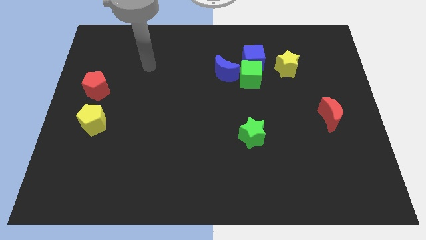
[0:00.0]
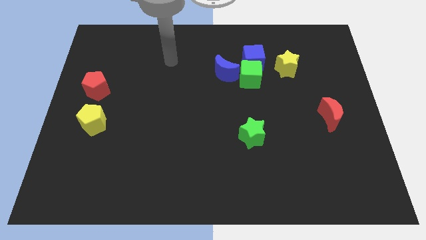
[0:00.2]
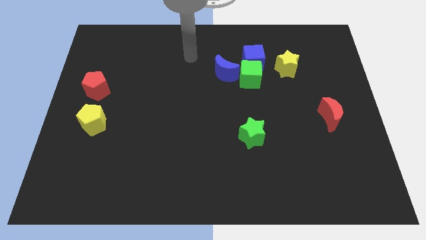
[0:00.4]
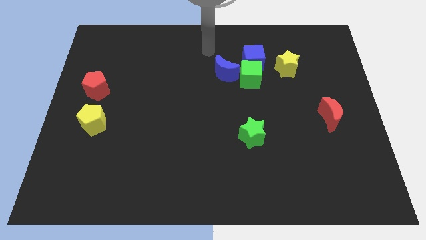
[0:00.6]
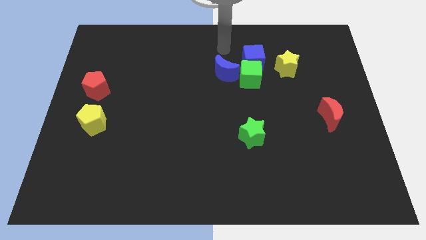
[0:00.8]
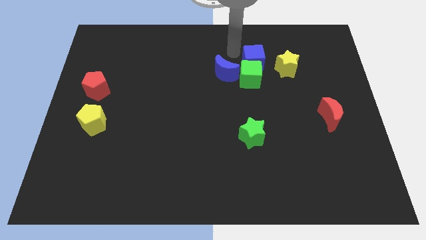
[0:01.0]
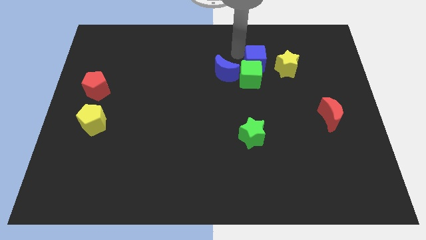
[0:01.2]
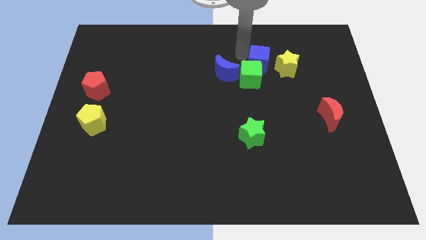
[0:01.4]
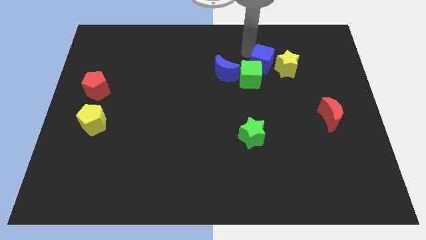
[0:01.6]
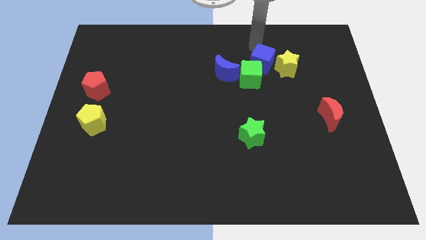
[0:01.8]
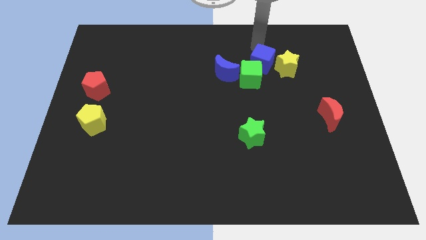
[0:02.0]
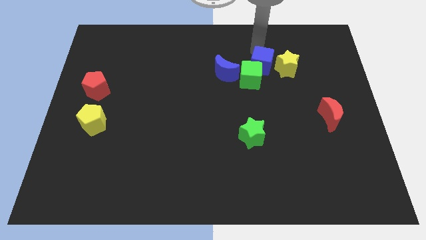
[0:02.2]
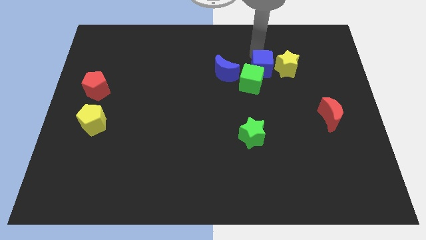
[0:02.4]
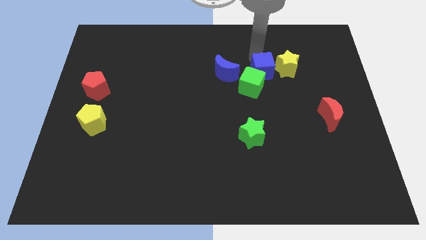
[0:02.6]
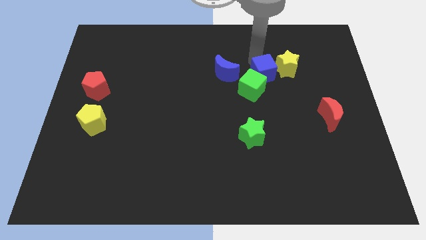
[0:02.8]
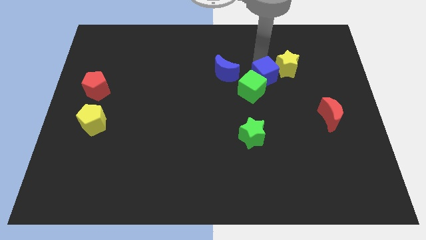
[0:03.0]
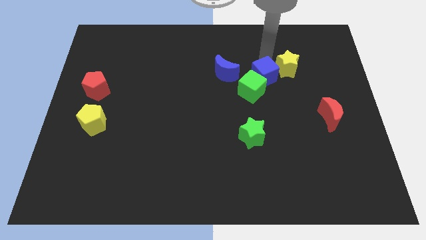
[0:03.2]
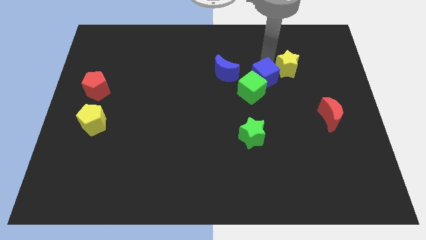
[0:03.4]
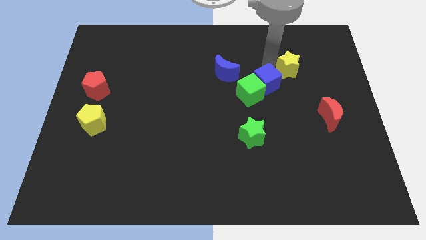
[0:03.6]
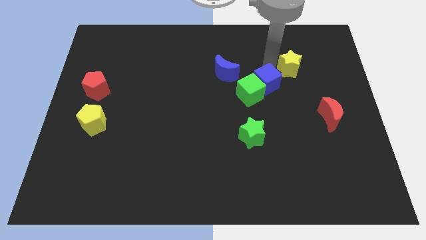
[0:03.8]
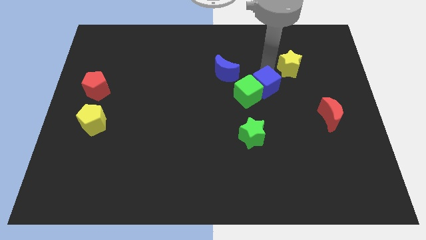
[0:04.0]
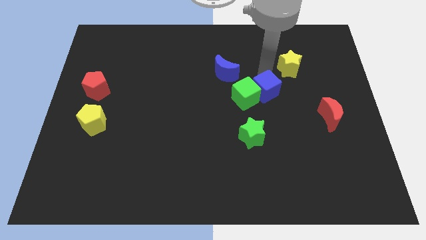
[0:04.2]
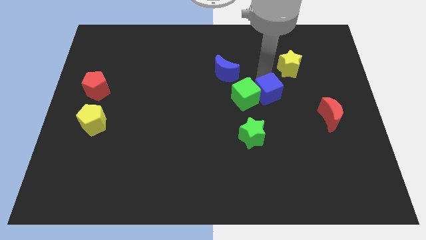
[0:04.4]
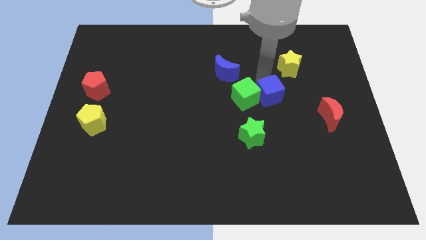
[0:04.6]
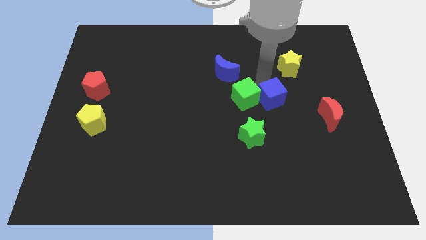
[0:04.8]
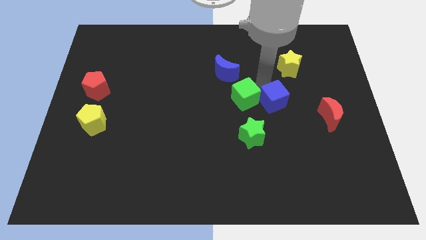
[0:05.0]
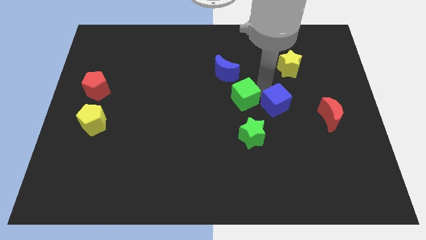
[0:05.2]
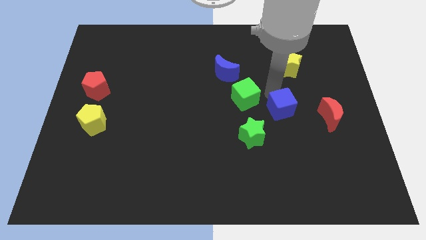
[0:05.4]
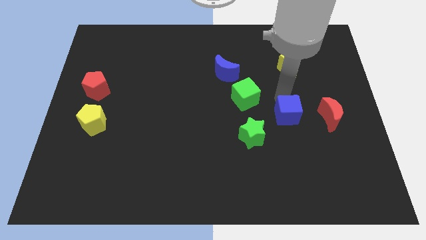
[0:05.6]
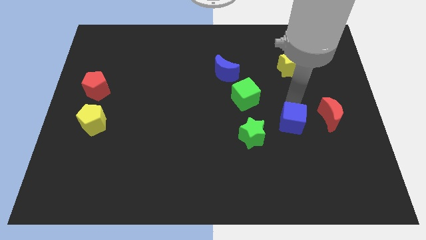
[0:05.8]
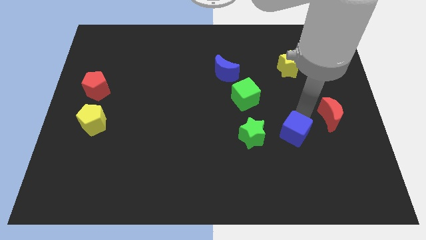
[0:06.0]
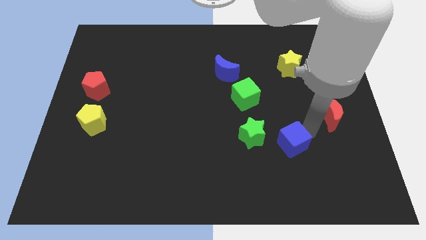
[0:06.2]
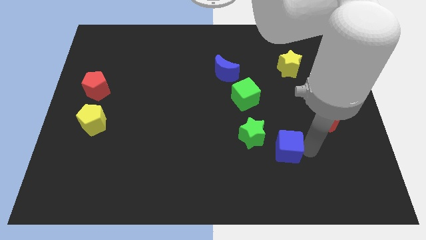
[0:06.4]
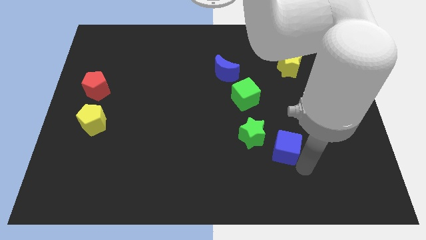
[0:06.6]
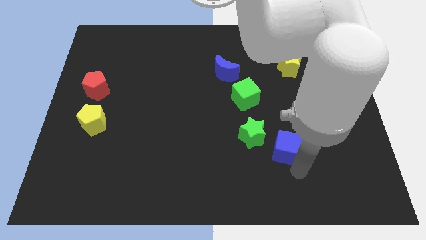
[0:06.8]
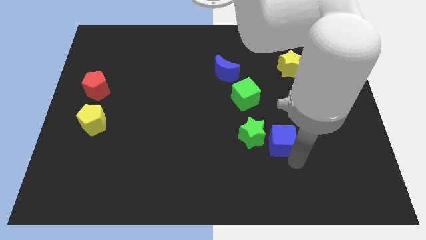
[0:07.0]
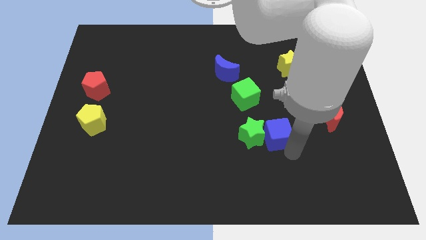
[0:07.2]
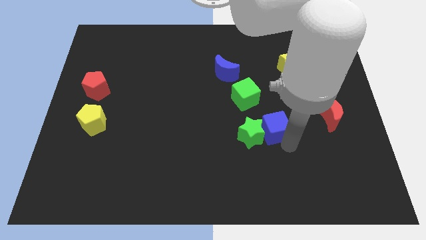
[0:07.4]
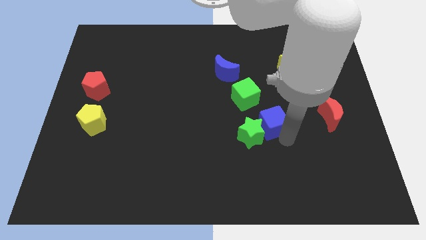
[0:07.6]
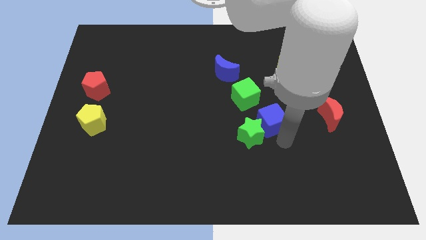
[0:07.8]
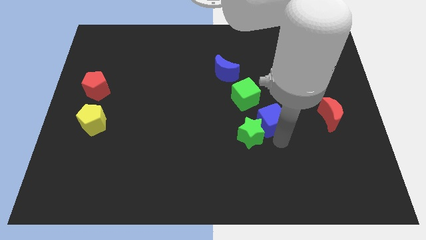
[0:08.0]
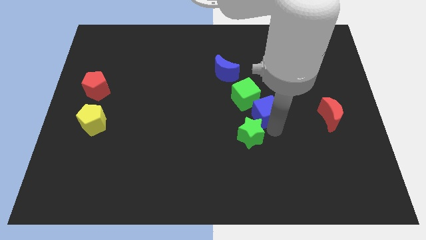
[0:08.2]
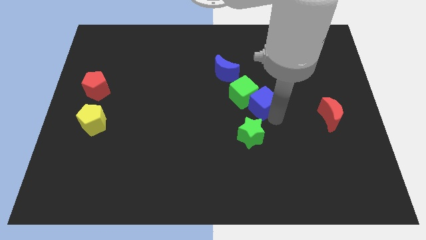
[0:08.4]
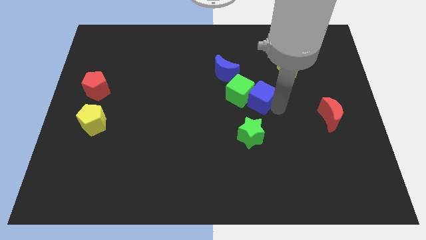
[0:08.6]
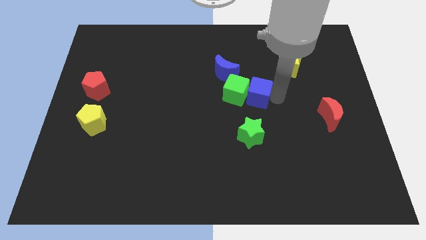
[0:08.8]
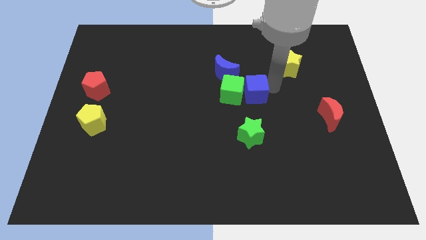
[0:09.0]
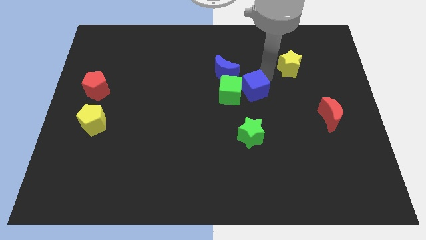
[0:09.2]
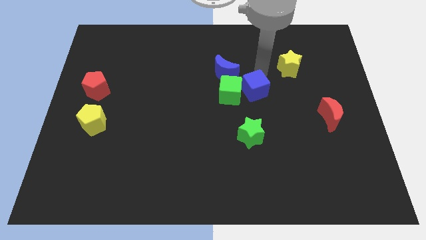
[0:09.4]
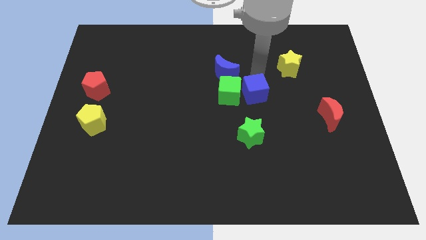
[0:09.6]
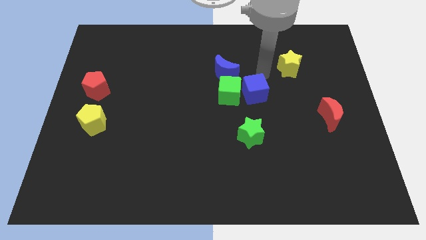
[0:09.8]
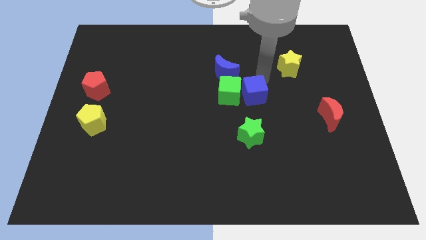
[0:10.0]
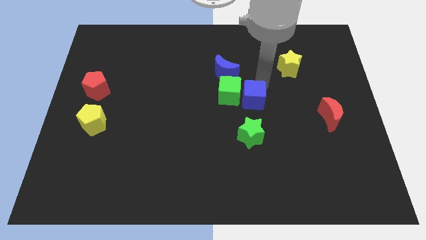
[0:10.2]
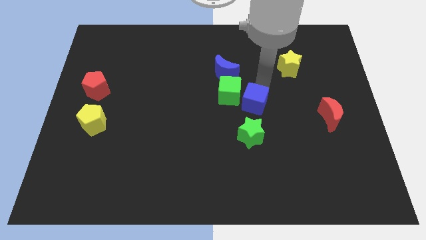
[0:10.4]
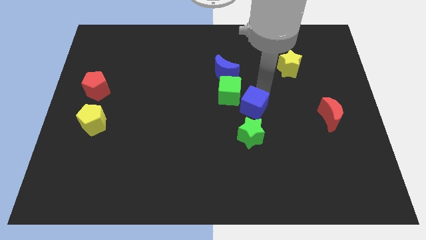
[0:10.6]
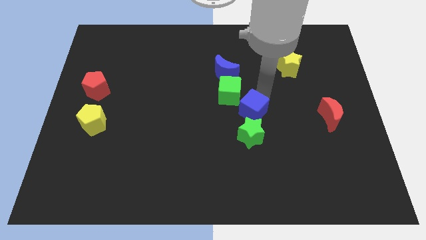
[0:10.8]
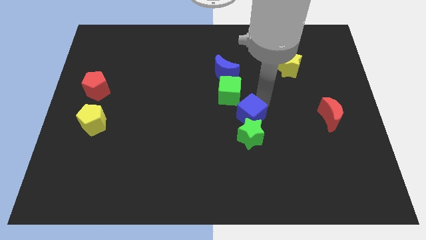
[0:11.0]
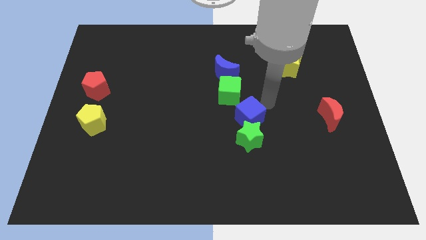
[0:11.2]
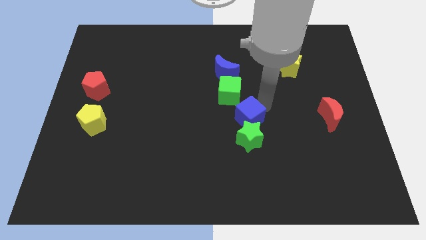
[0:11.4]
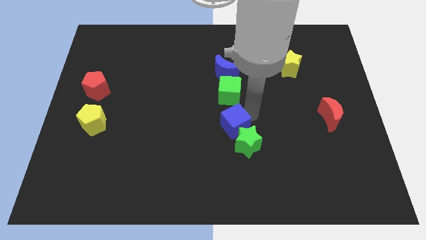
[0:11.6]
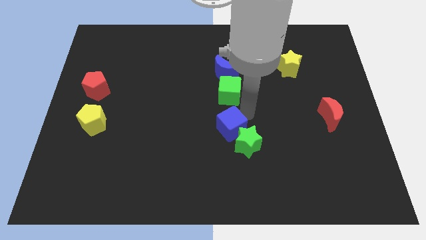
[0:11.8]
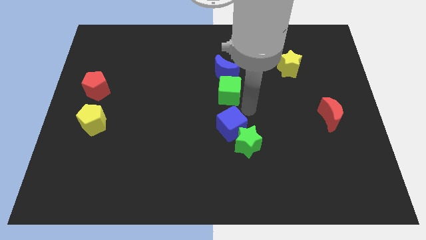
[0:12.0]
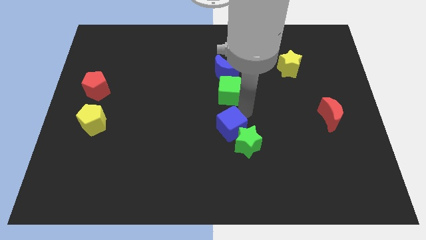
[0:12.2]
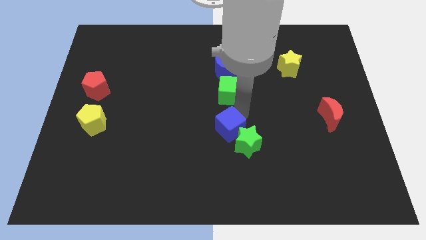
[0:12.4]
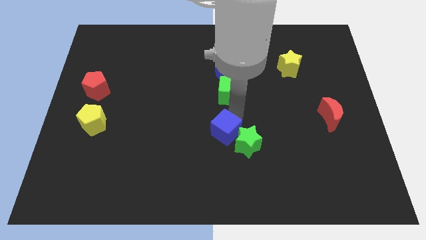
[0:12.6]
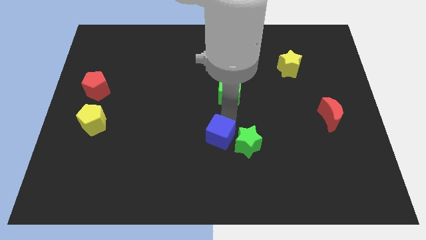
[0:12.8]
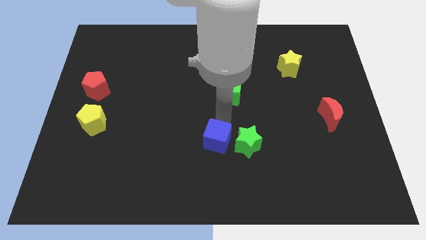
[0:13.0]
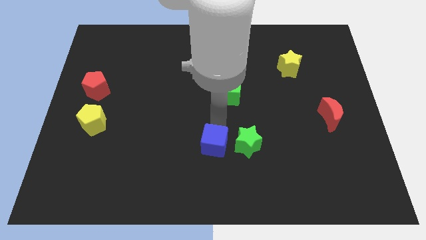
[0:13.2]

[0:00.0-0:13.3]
move the blue cube to the bottom left side of the green star

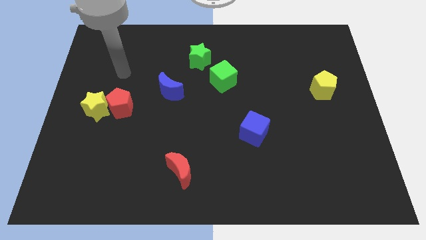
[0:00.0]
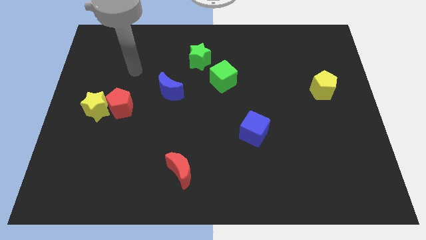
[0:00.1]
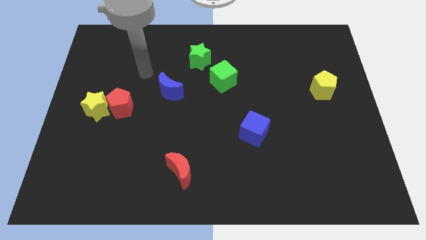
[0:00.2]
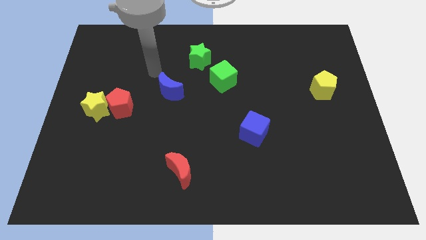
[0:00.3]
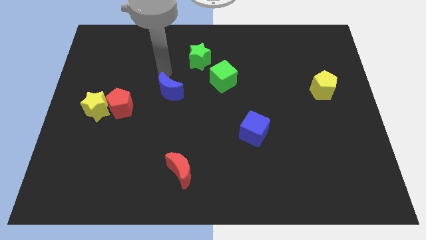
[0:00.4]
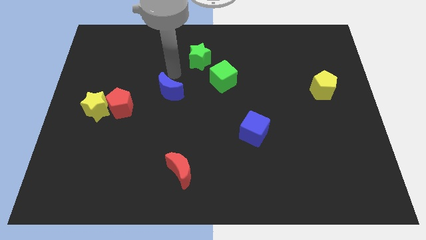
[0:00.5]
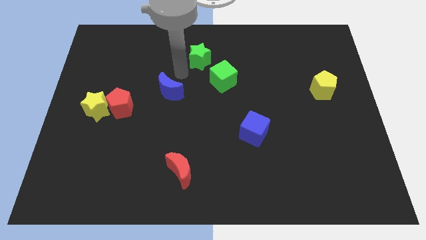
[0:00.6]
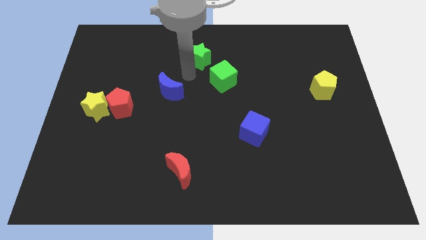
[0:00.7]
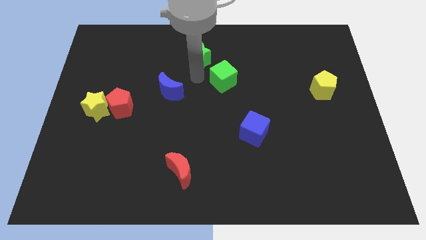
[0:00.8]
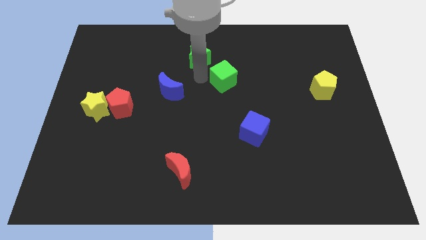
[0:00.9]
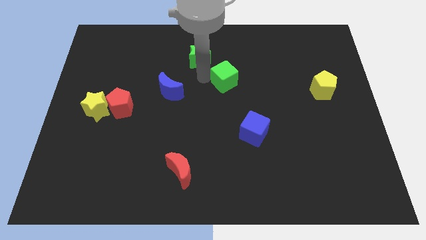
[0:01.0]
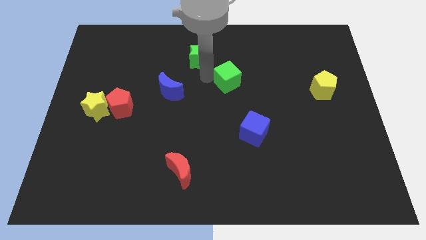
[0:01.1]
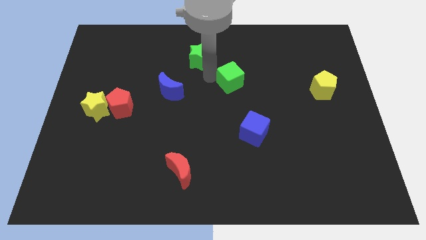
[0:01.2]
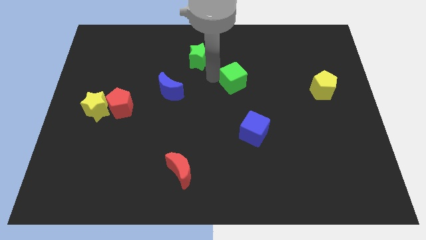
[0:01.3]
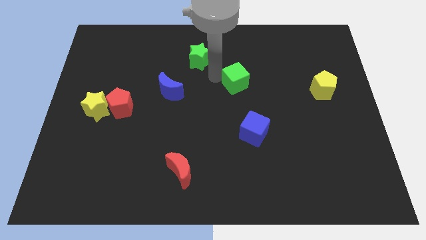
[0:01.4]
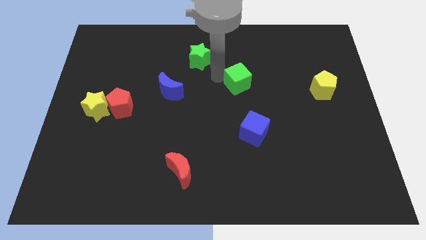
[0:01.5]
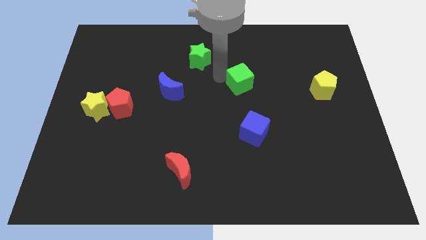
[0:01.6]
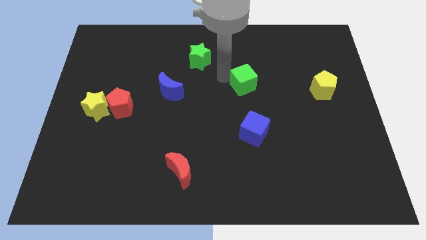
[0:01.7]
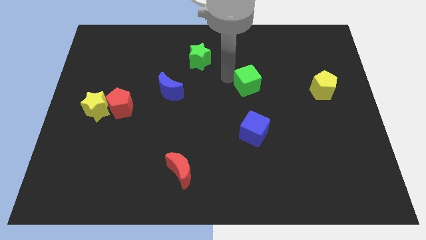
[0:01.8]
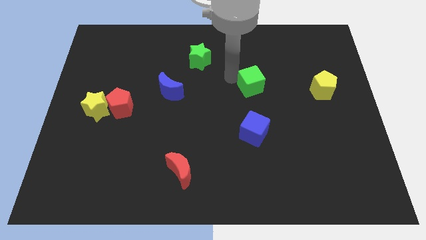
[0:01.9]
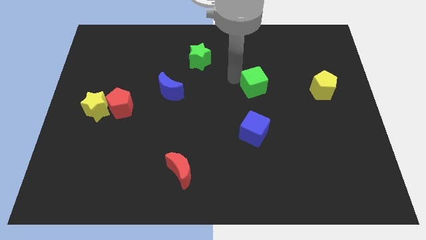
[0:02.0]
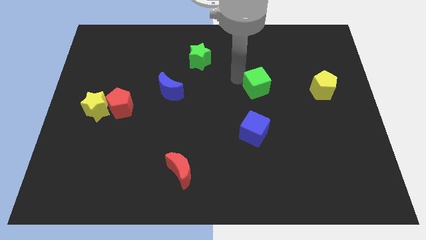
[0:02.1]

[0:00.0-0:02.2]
slide the green cube to the left side of the yellow pentagon
